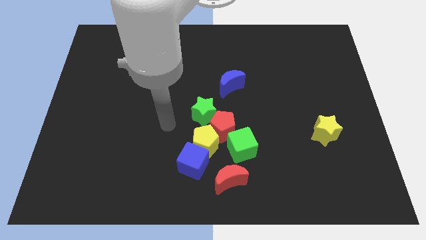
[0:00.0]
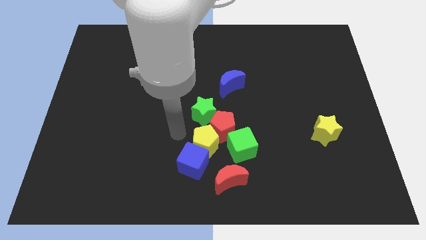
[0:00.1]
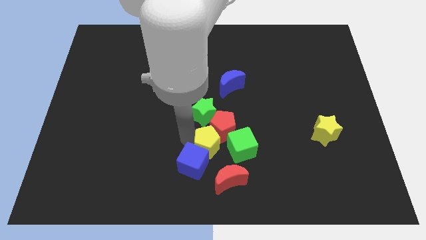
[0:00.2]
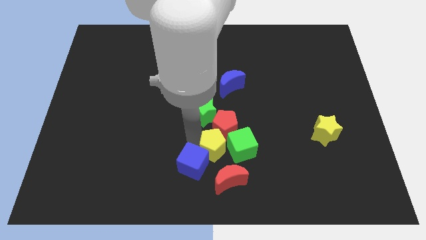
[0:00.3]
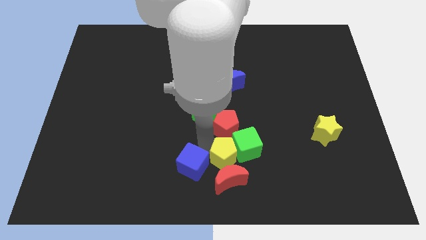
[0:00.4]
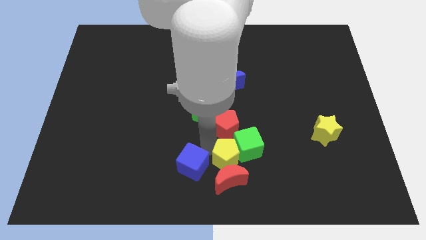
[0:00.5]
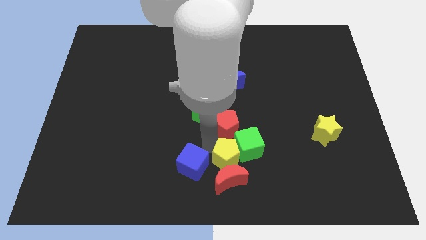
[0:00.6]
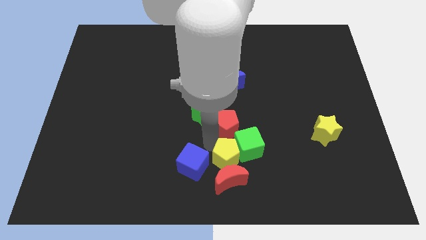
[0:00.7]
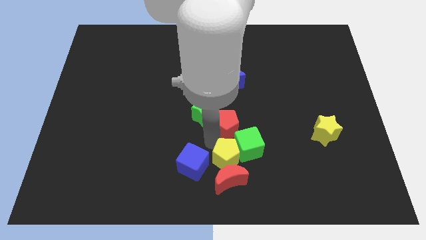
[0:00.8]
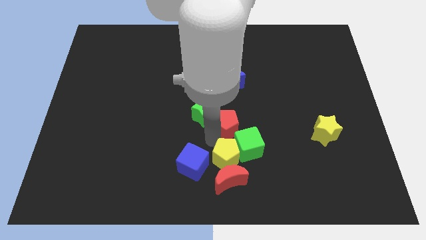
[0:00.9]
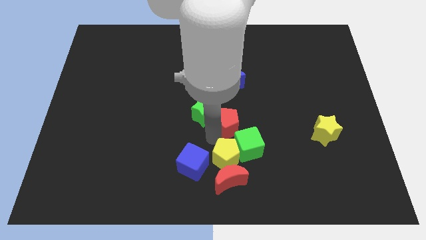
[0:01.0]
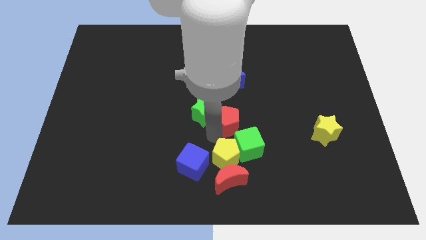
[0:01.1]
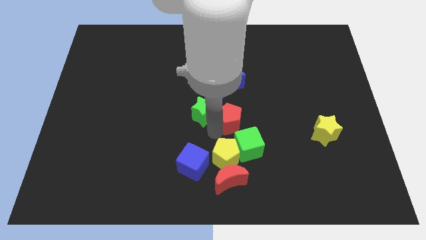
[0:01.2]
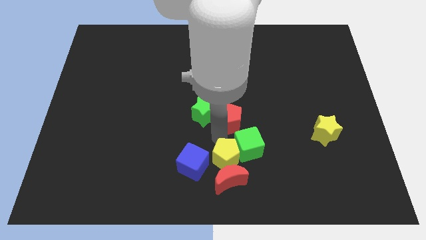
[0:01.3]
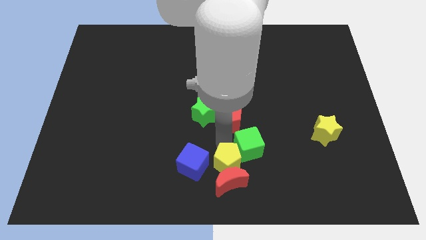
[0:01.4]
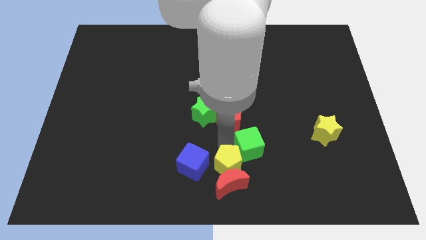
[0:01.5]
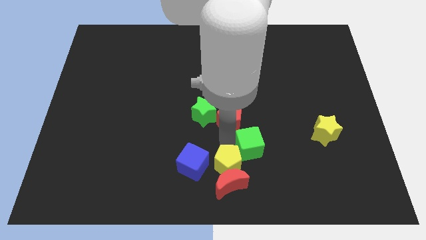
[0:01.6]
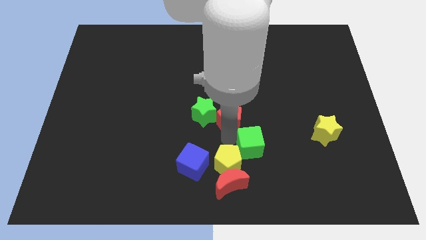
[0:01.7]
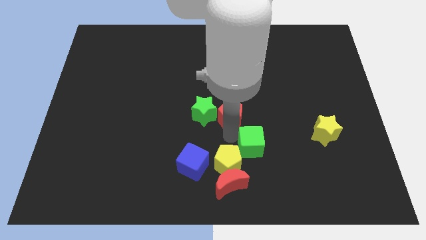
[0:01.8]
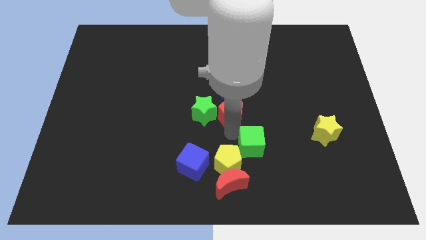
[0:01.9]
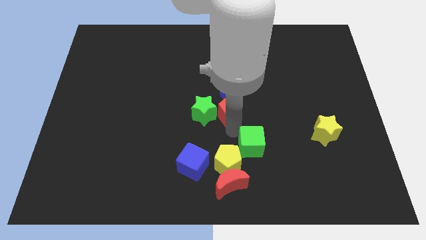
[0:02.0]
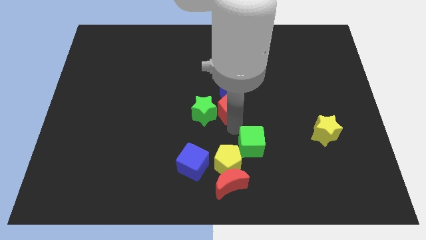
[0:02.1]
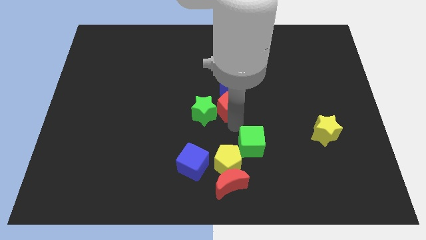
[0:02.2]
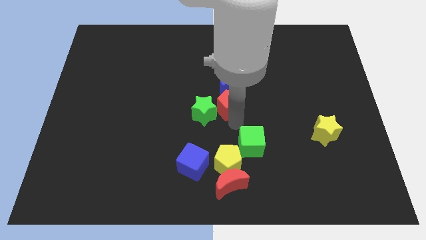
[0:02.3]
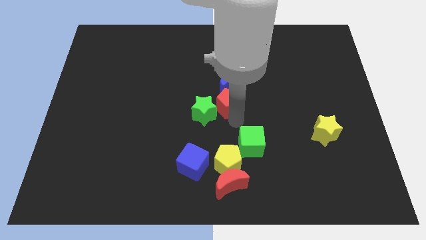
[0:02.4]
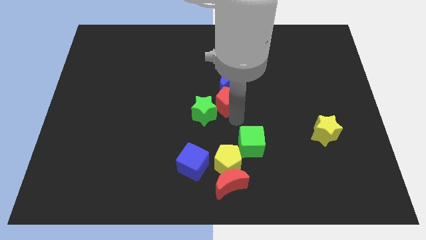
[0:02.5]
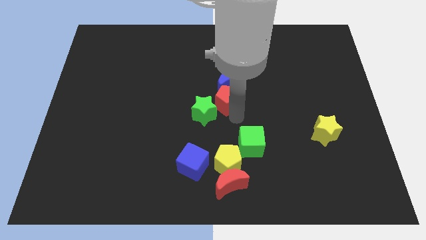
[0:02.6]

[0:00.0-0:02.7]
pull the red pentagon apart from the yellow pentagon, green star, and green cube

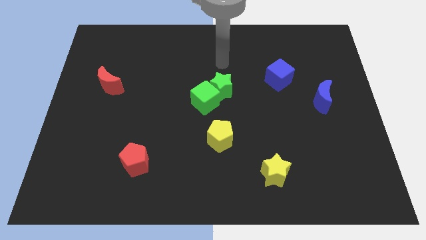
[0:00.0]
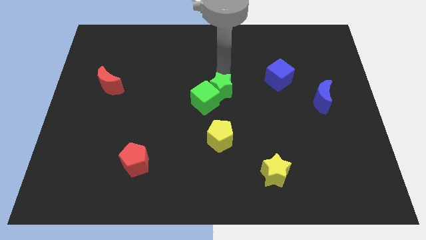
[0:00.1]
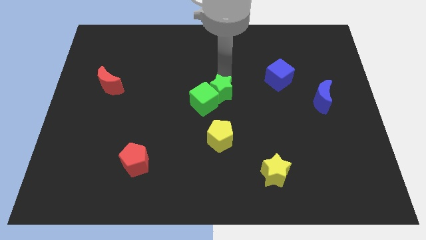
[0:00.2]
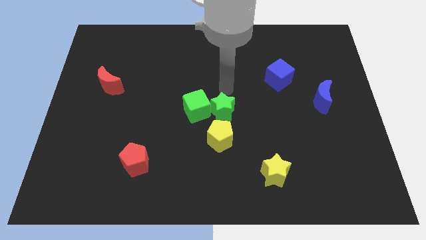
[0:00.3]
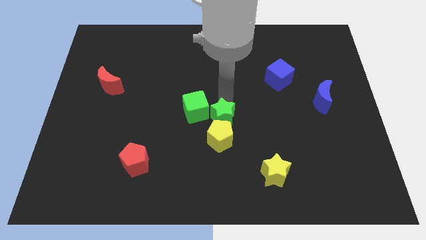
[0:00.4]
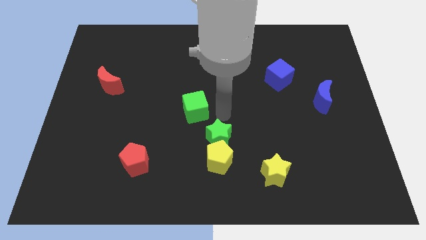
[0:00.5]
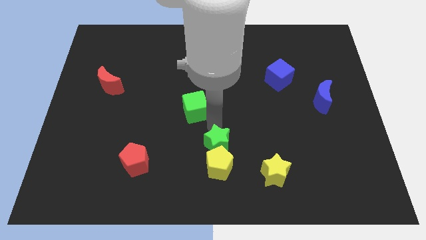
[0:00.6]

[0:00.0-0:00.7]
move the green cube away from the green star

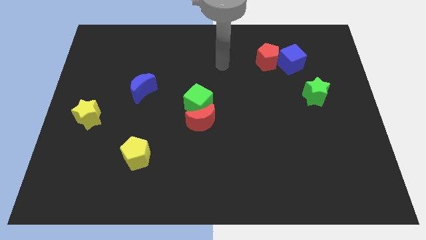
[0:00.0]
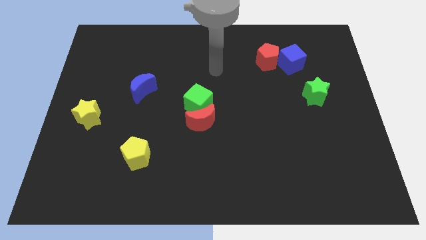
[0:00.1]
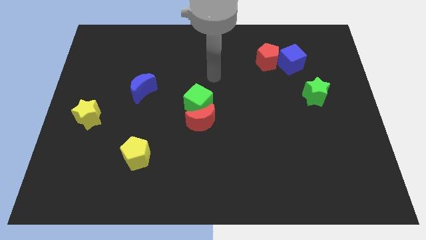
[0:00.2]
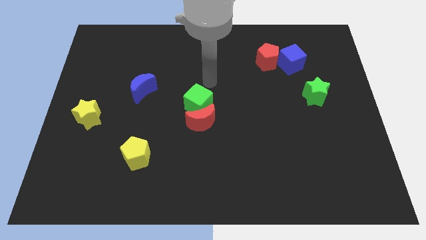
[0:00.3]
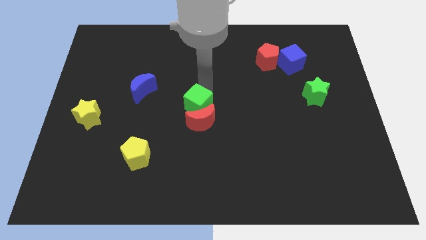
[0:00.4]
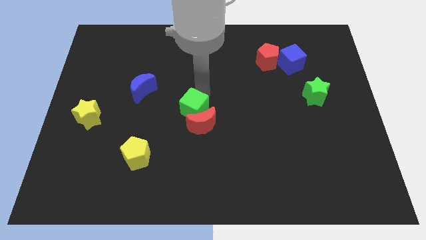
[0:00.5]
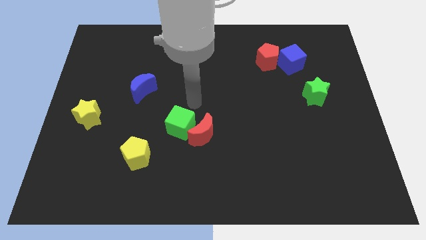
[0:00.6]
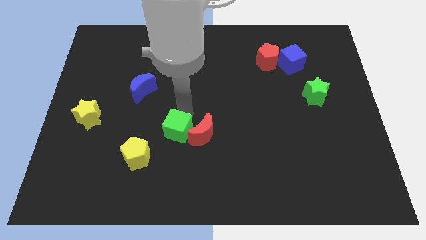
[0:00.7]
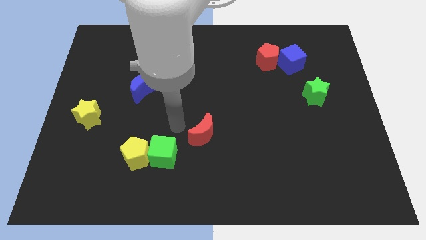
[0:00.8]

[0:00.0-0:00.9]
separate the red moon from the green cube

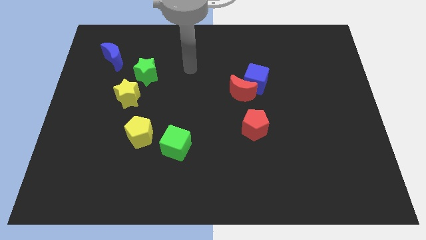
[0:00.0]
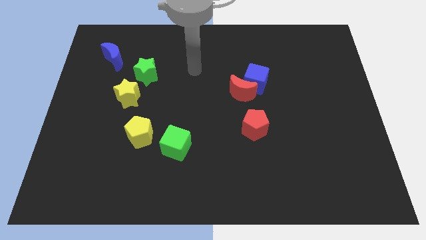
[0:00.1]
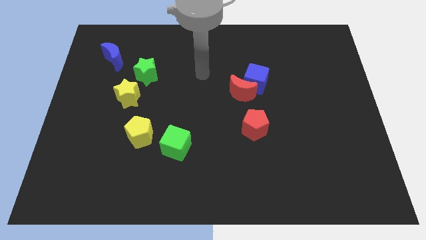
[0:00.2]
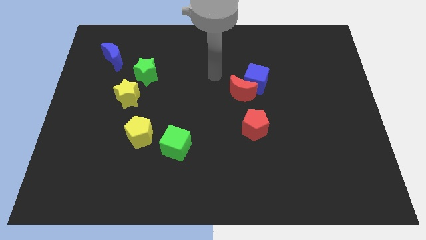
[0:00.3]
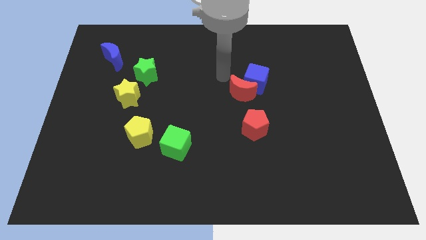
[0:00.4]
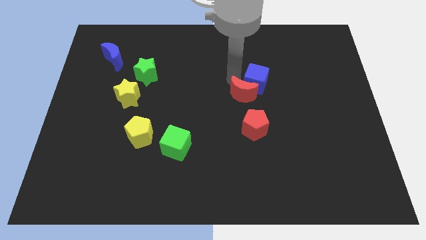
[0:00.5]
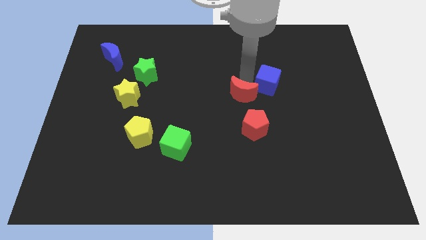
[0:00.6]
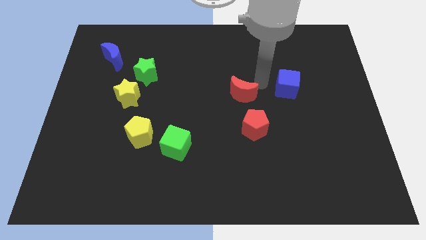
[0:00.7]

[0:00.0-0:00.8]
move the red moon away from the blue cube

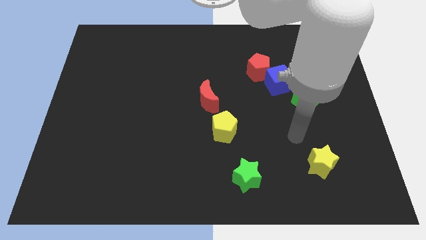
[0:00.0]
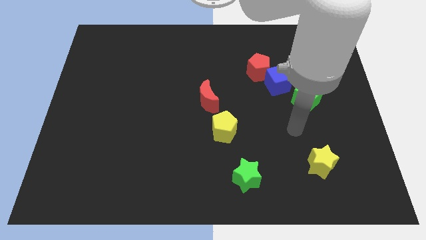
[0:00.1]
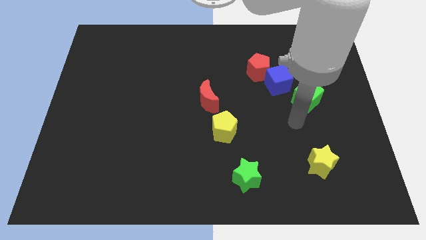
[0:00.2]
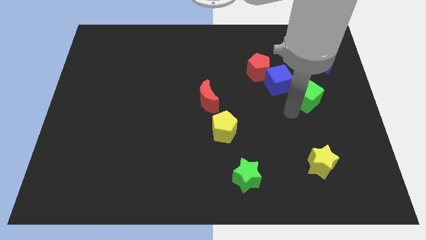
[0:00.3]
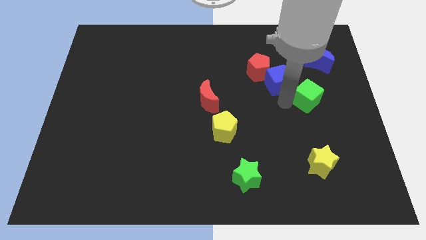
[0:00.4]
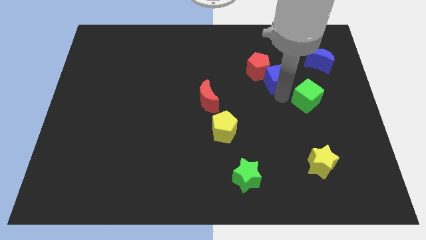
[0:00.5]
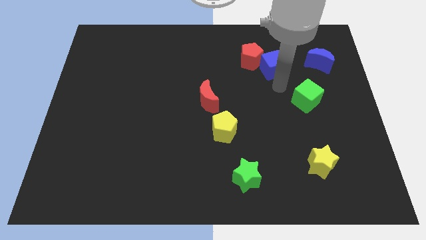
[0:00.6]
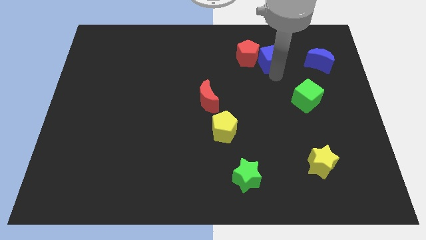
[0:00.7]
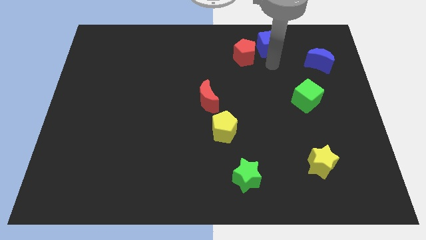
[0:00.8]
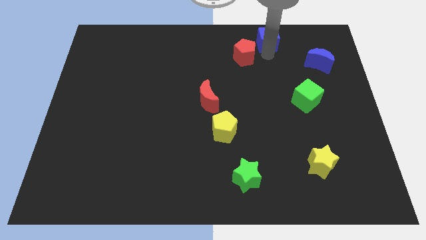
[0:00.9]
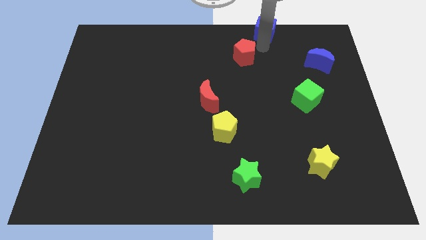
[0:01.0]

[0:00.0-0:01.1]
separate the red pentagon from the blue cube

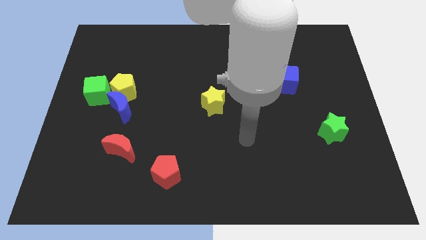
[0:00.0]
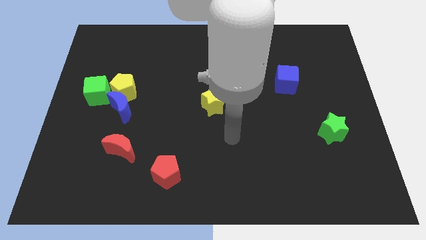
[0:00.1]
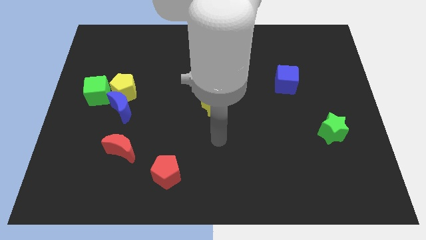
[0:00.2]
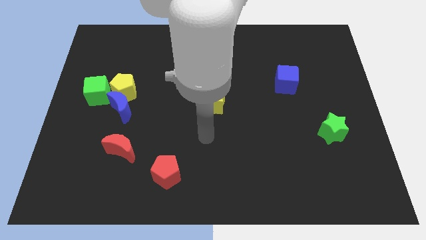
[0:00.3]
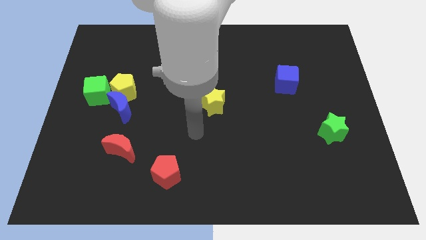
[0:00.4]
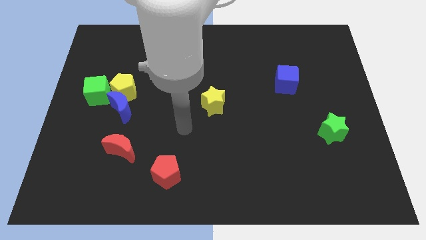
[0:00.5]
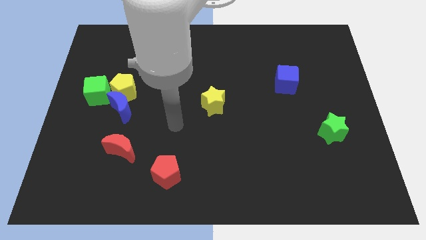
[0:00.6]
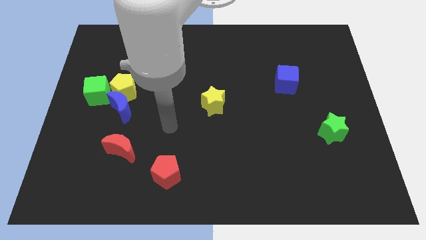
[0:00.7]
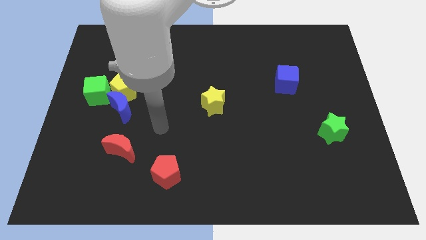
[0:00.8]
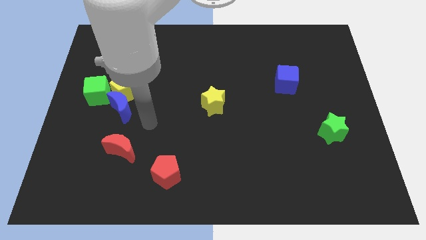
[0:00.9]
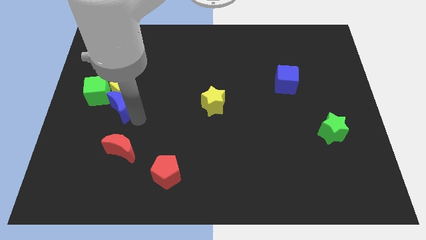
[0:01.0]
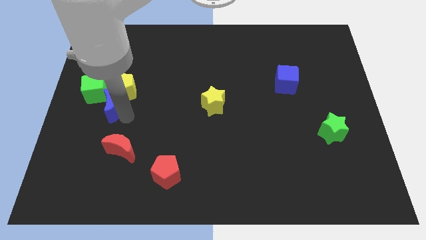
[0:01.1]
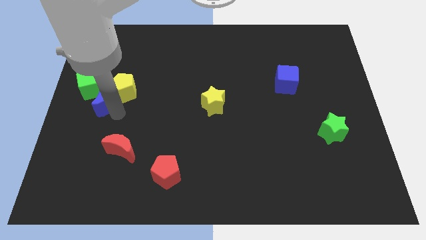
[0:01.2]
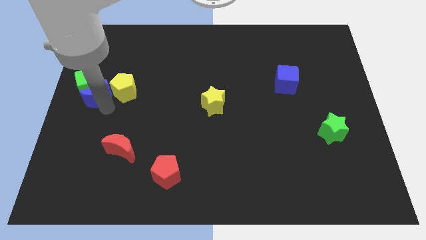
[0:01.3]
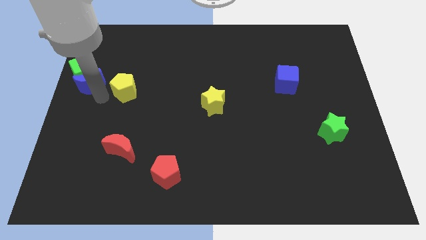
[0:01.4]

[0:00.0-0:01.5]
move the yellow pentagon away from the blue moon and green cube

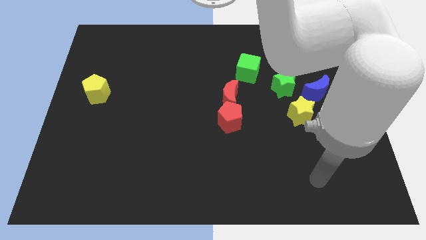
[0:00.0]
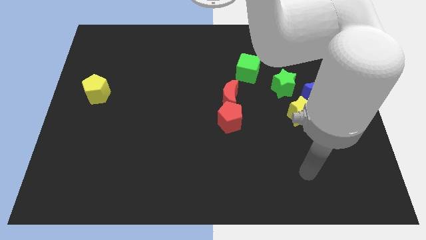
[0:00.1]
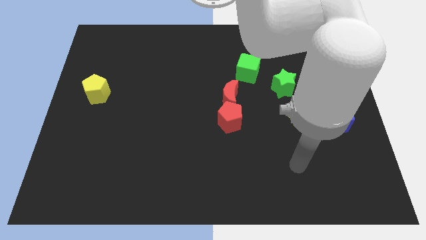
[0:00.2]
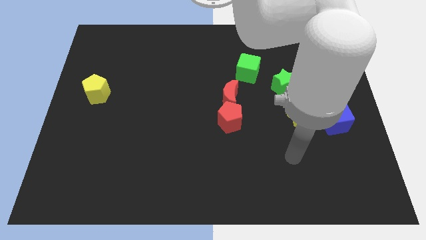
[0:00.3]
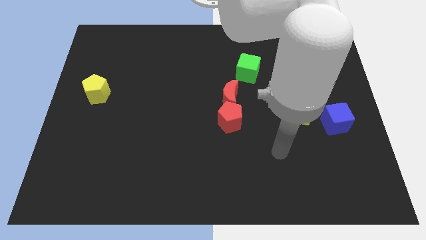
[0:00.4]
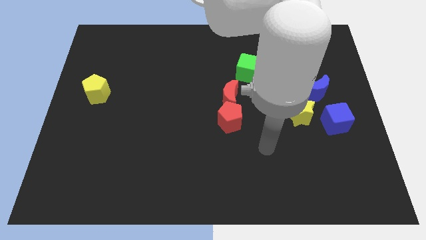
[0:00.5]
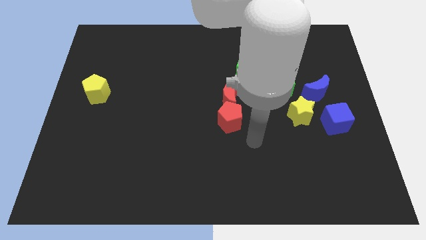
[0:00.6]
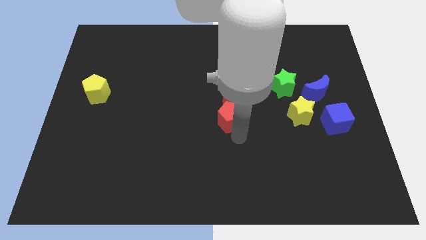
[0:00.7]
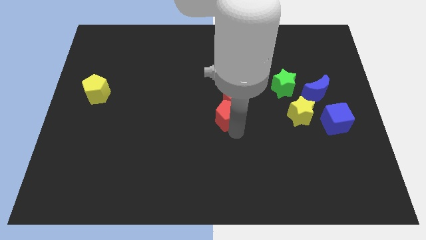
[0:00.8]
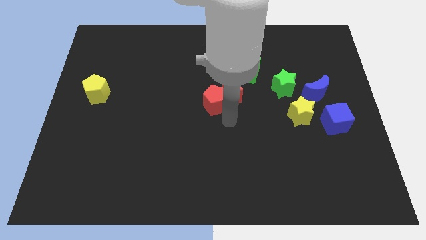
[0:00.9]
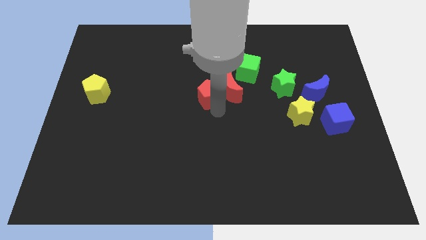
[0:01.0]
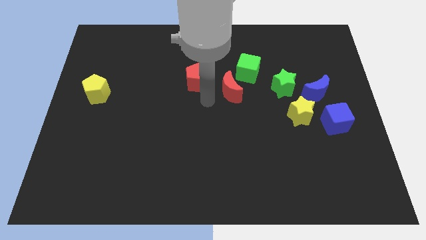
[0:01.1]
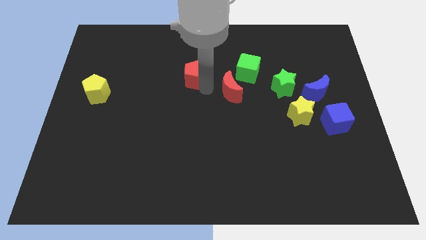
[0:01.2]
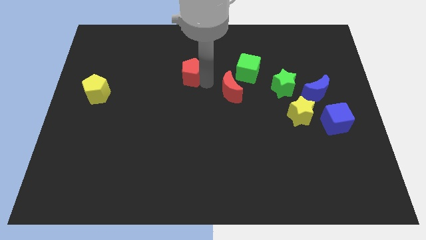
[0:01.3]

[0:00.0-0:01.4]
move the red moon away from the red pentagon

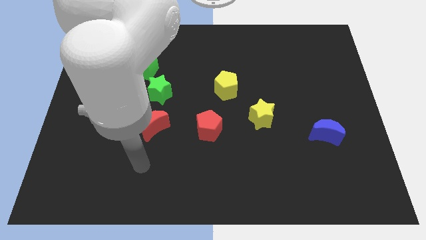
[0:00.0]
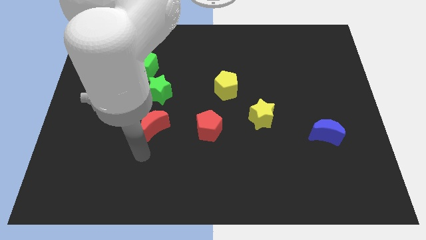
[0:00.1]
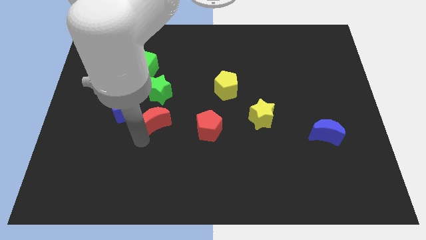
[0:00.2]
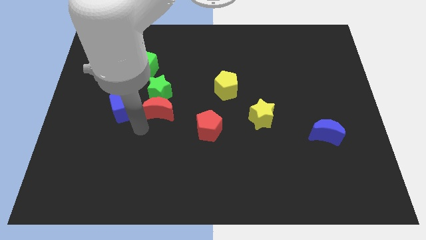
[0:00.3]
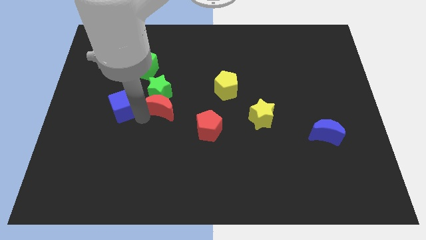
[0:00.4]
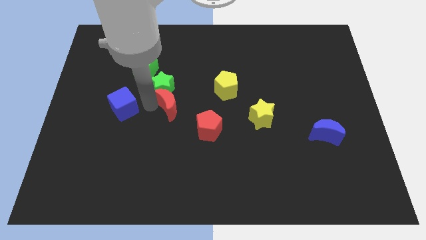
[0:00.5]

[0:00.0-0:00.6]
separate the blue cube from the red moon and green star
